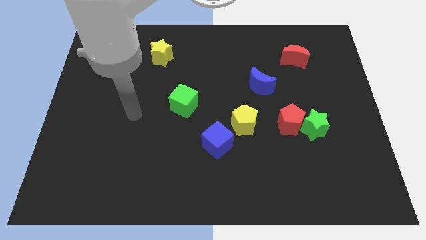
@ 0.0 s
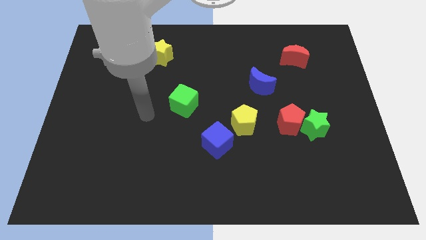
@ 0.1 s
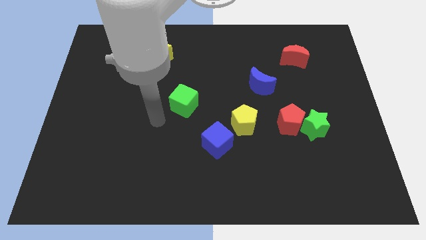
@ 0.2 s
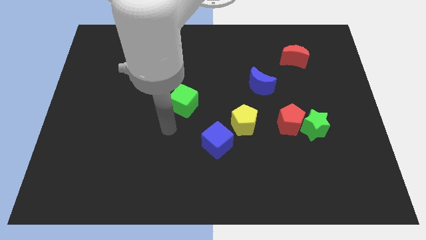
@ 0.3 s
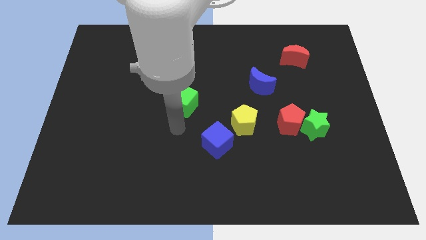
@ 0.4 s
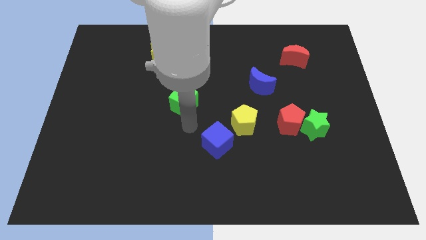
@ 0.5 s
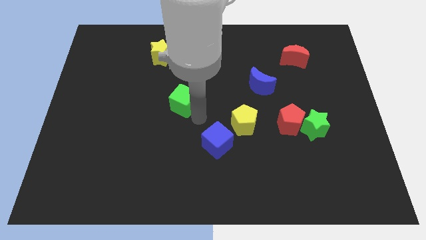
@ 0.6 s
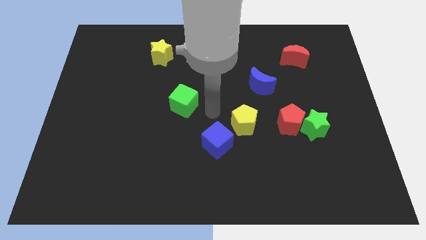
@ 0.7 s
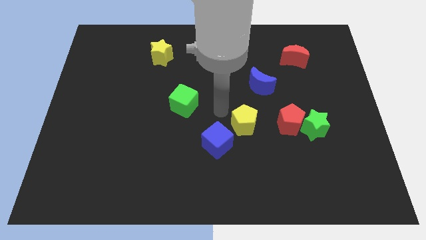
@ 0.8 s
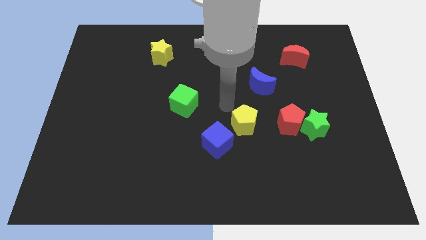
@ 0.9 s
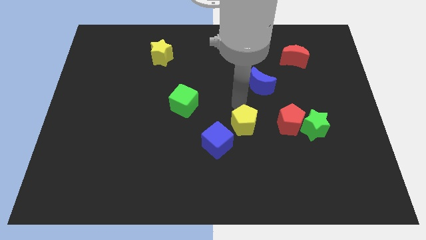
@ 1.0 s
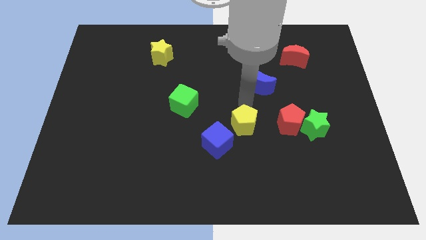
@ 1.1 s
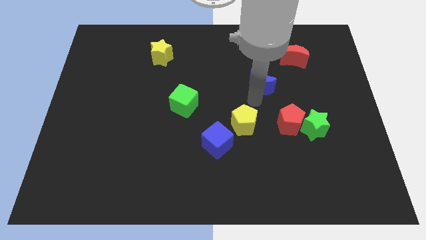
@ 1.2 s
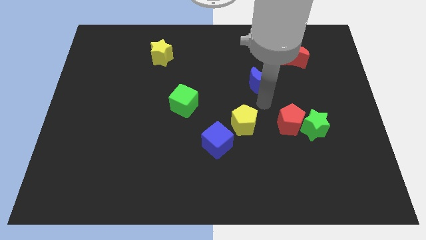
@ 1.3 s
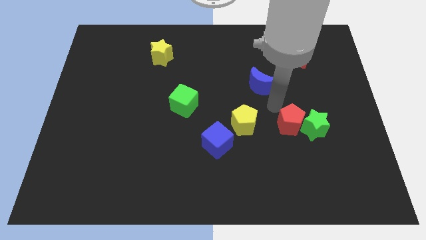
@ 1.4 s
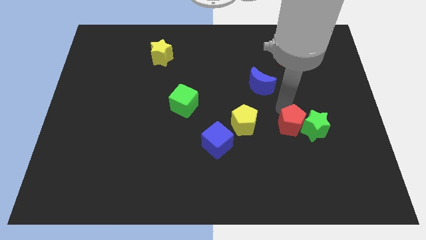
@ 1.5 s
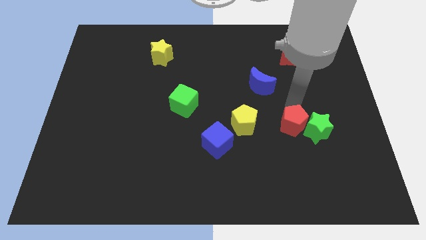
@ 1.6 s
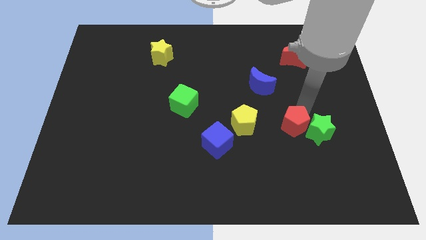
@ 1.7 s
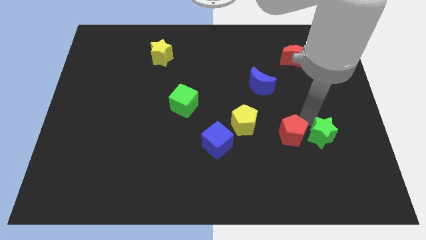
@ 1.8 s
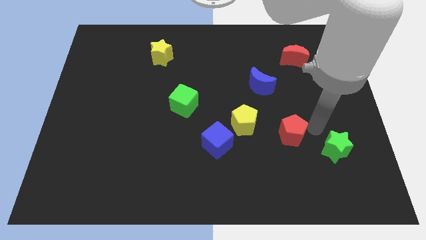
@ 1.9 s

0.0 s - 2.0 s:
move the red pentagon away from the green star

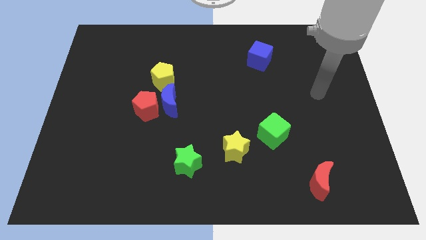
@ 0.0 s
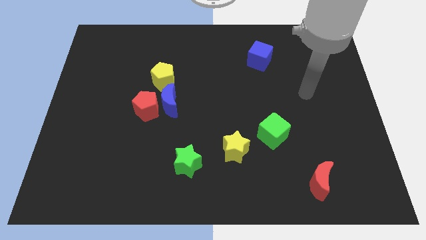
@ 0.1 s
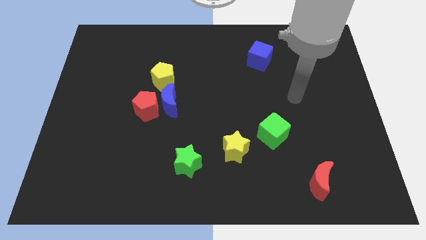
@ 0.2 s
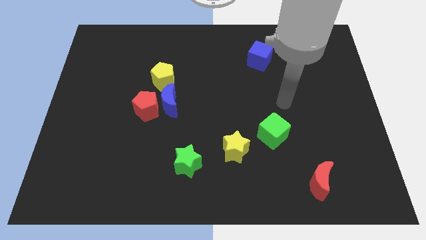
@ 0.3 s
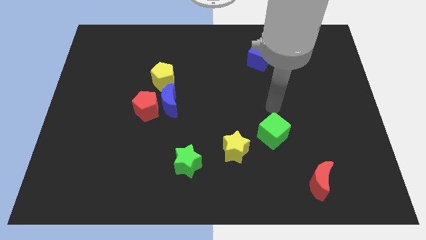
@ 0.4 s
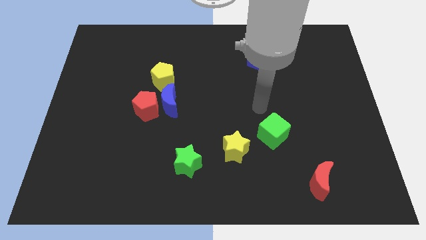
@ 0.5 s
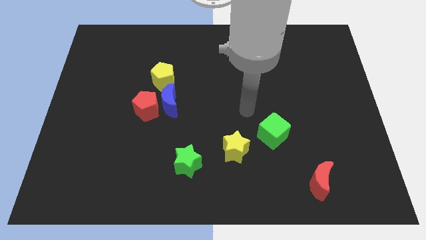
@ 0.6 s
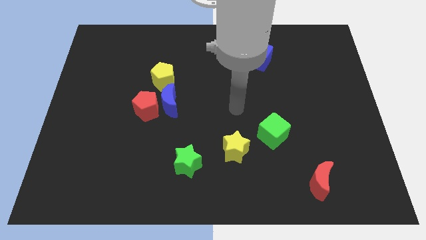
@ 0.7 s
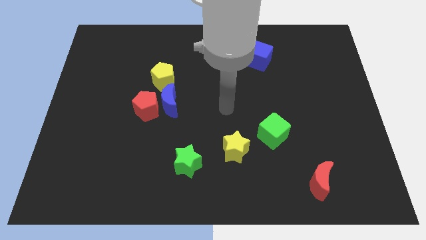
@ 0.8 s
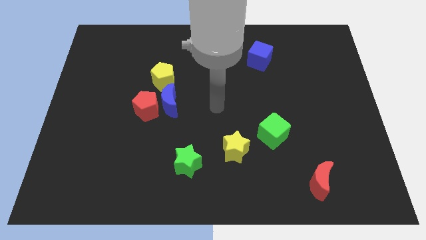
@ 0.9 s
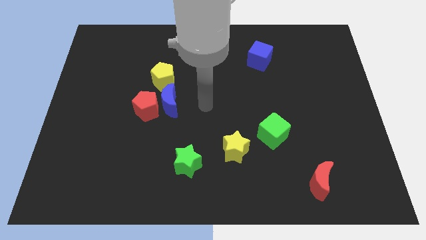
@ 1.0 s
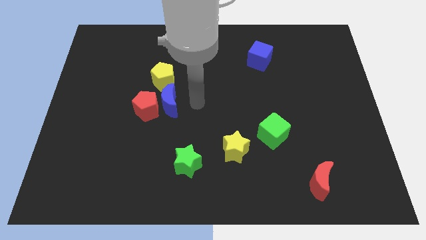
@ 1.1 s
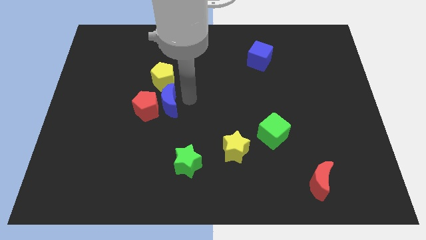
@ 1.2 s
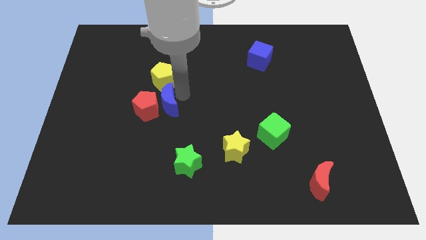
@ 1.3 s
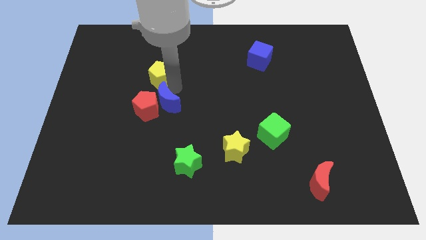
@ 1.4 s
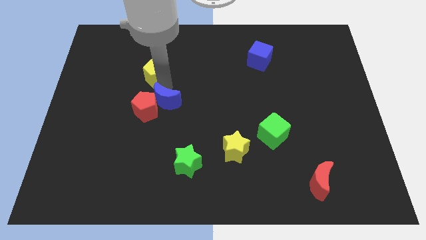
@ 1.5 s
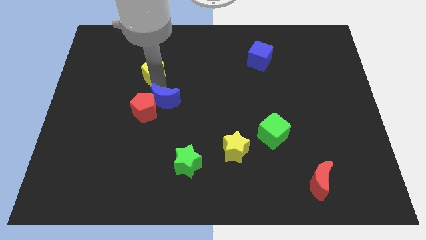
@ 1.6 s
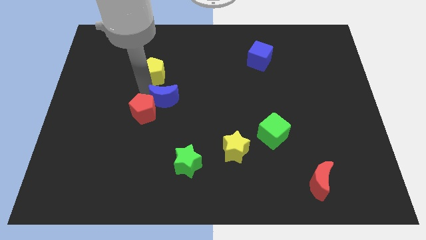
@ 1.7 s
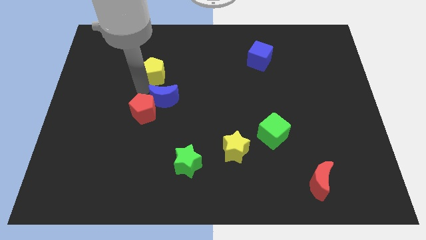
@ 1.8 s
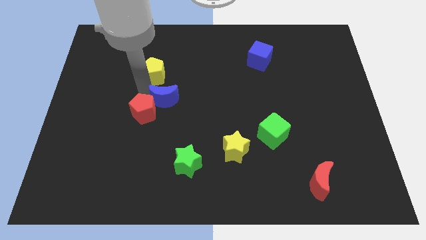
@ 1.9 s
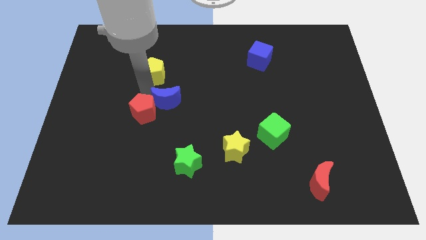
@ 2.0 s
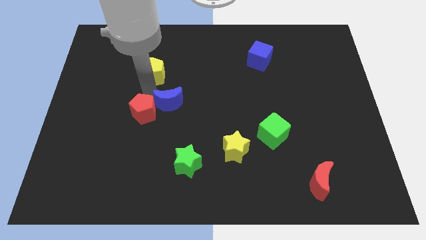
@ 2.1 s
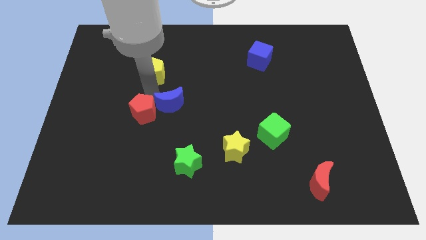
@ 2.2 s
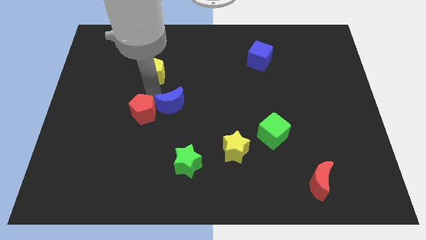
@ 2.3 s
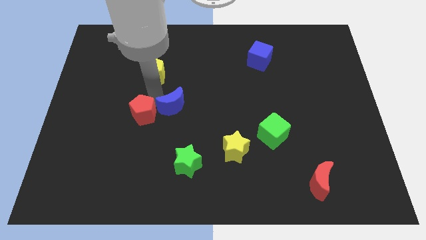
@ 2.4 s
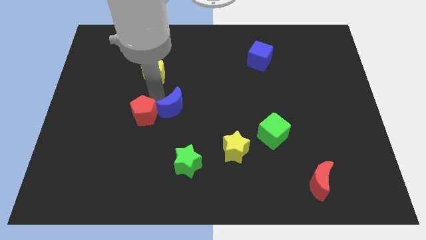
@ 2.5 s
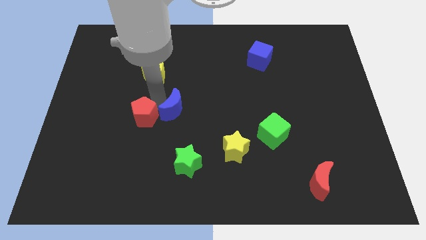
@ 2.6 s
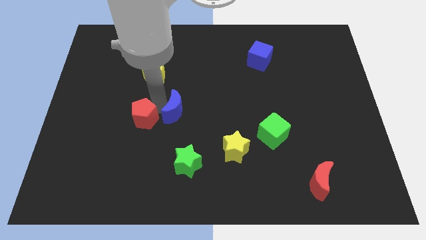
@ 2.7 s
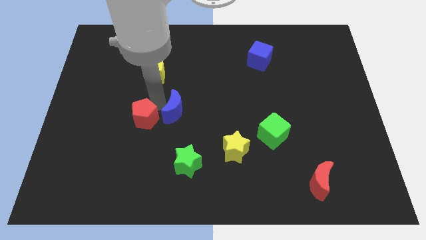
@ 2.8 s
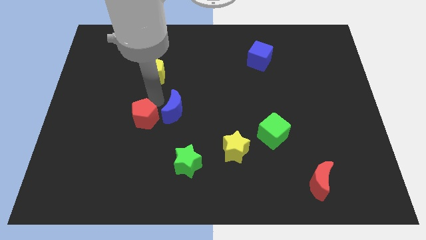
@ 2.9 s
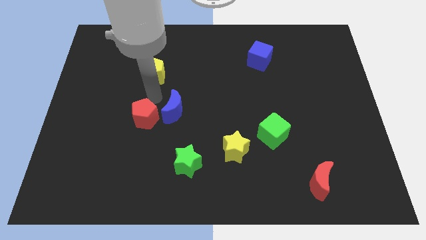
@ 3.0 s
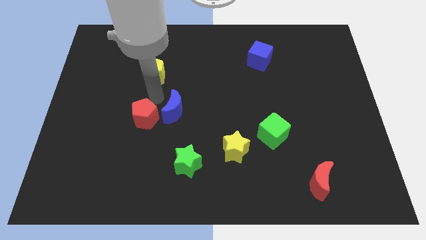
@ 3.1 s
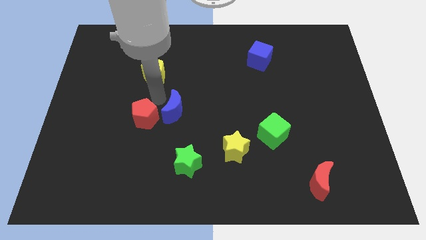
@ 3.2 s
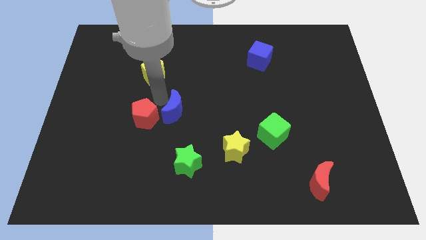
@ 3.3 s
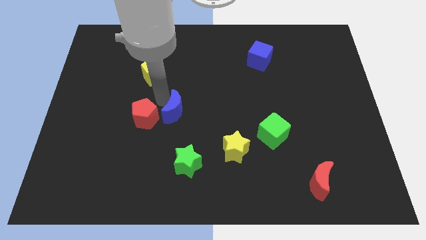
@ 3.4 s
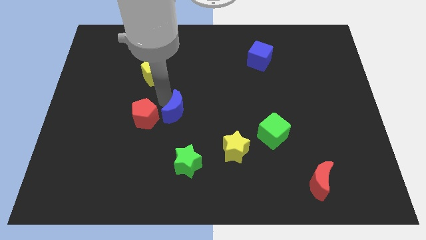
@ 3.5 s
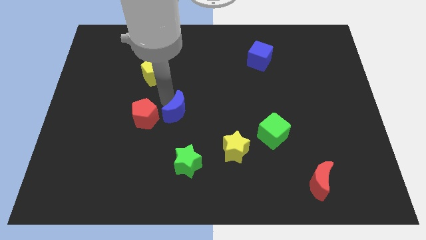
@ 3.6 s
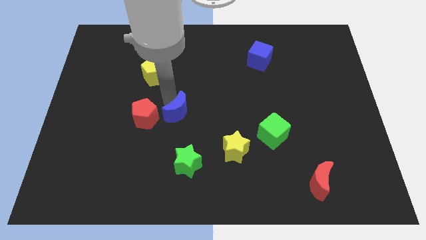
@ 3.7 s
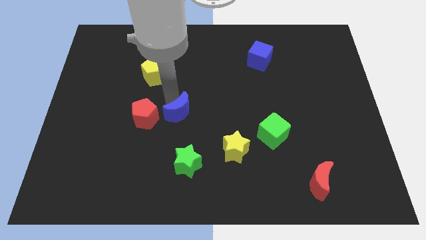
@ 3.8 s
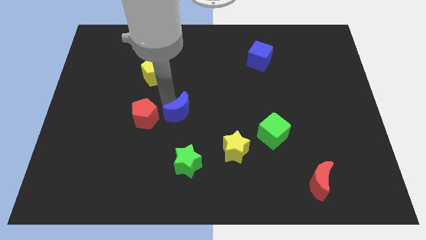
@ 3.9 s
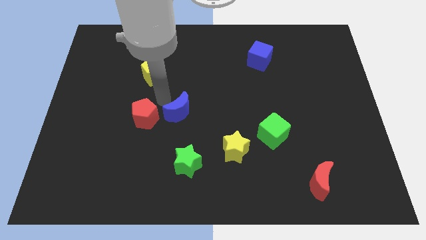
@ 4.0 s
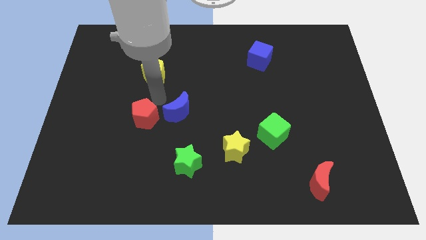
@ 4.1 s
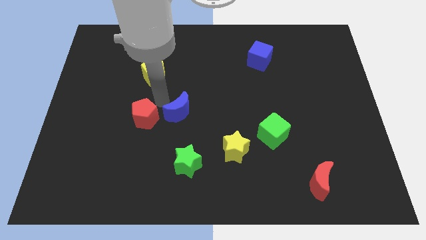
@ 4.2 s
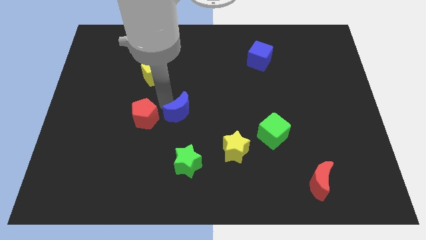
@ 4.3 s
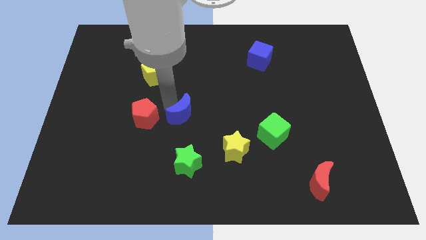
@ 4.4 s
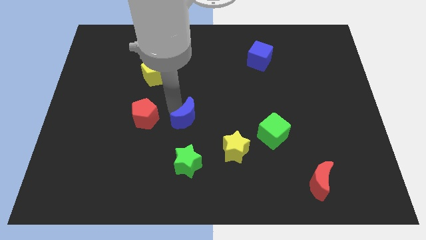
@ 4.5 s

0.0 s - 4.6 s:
separate the blue moon from the red pentagon and yellow pentagon

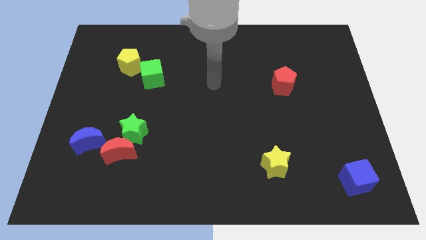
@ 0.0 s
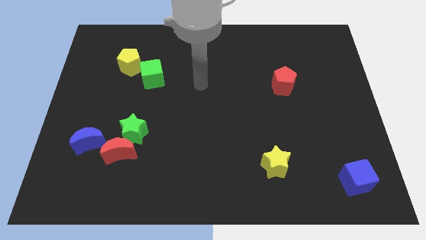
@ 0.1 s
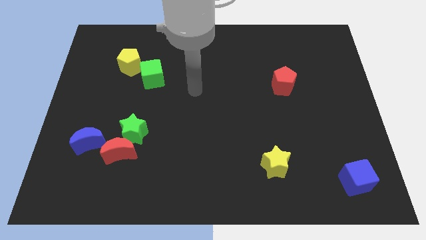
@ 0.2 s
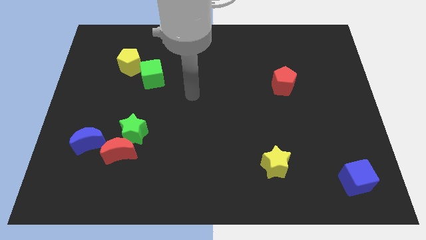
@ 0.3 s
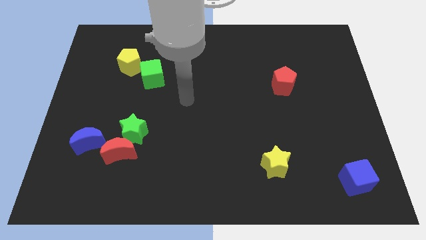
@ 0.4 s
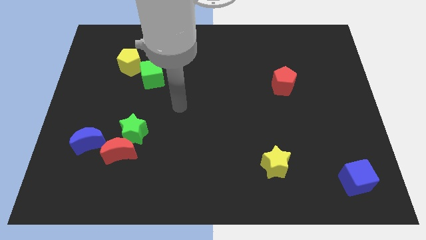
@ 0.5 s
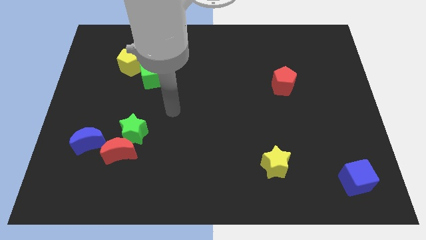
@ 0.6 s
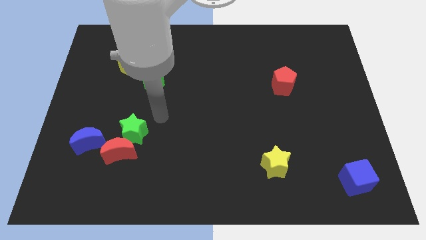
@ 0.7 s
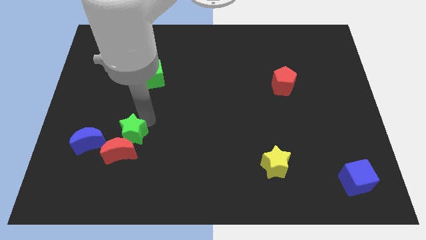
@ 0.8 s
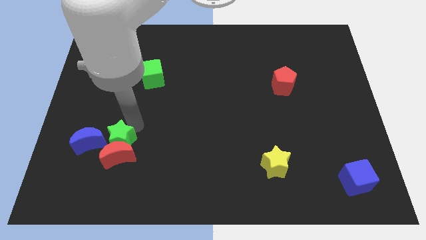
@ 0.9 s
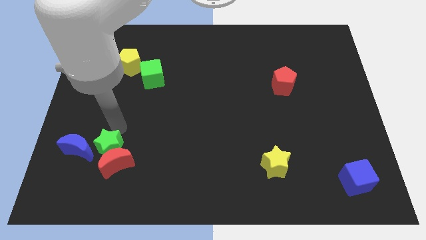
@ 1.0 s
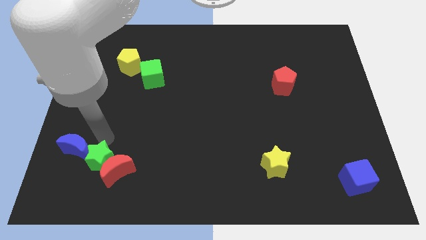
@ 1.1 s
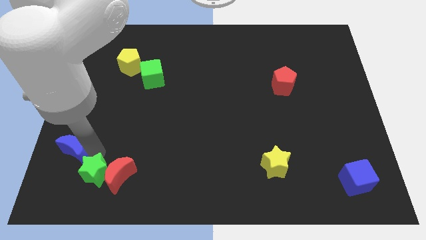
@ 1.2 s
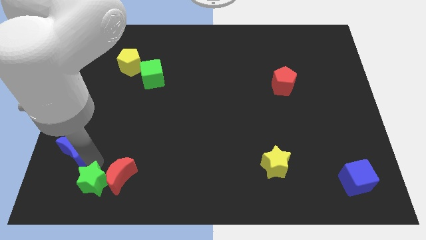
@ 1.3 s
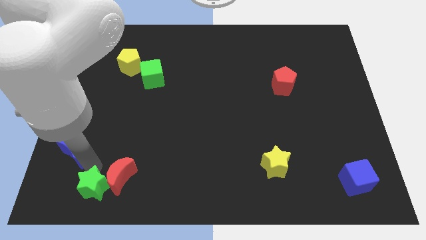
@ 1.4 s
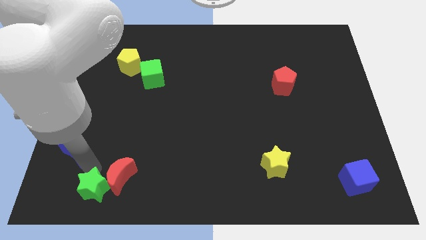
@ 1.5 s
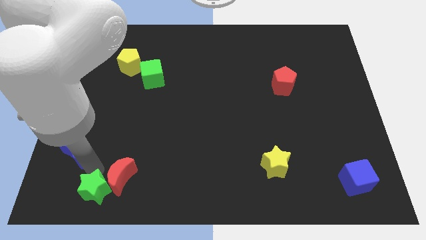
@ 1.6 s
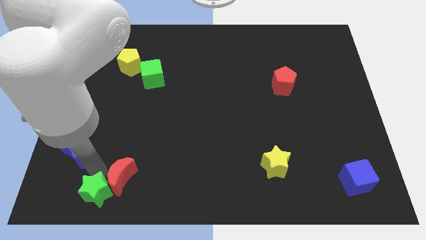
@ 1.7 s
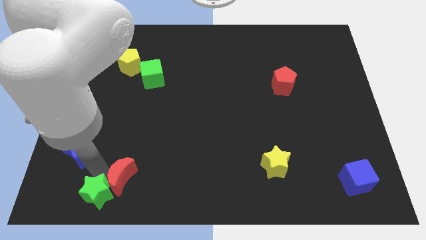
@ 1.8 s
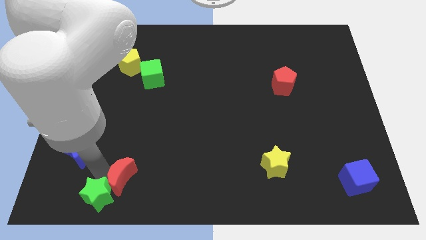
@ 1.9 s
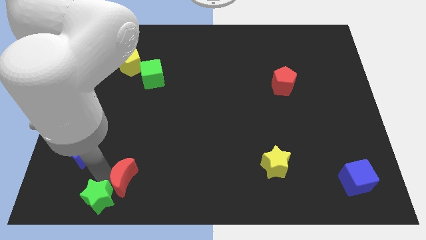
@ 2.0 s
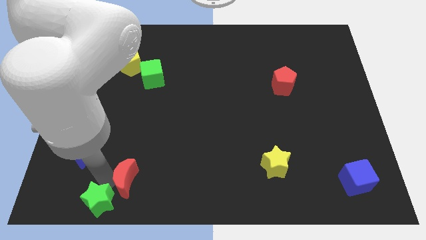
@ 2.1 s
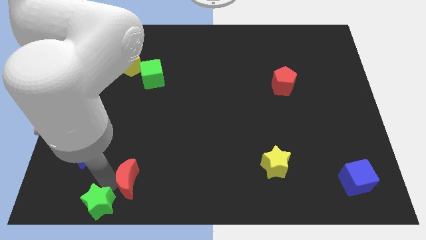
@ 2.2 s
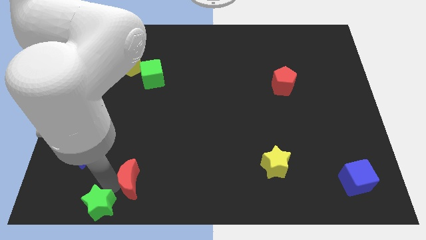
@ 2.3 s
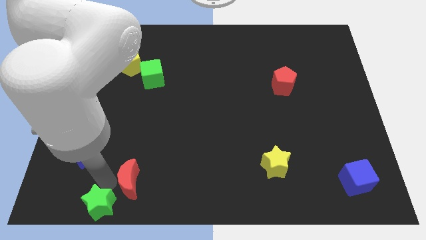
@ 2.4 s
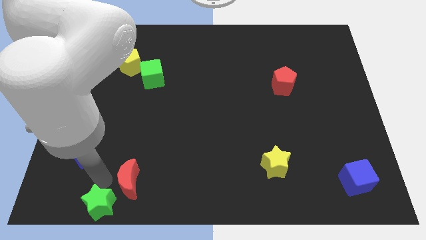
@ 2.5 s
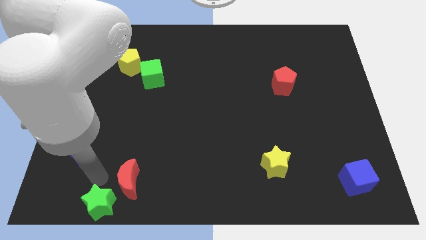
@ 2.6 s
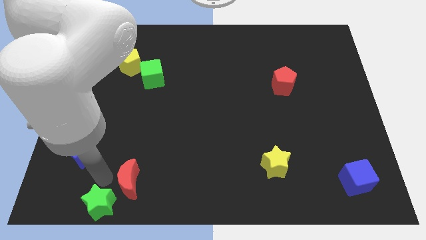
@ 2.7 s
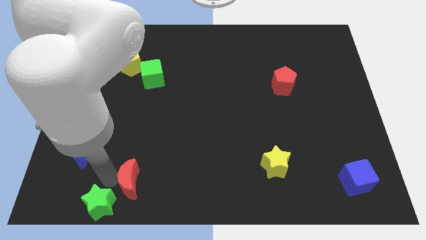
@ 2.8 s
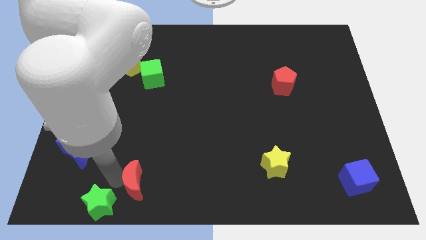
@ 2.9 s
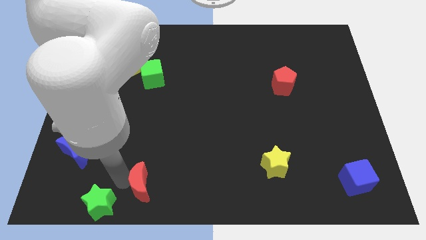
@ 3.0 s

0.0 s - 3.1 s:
separate the red moon from the green star and blue moon
